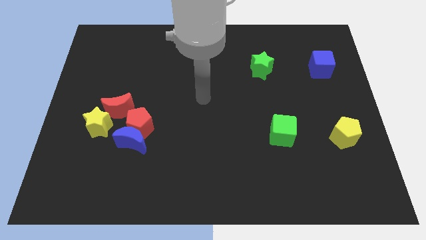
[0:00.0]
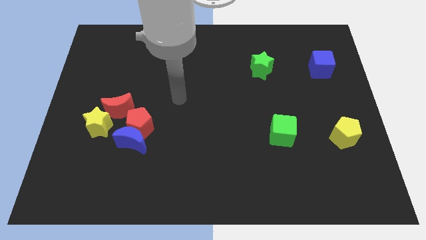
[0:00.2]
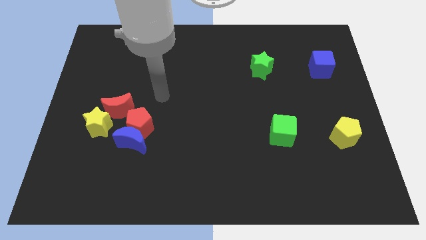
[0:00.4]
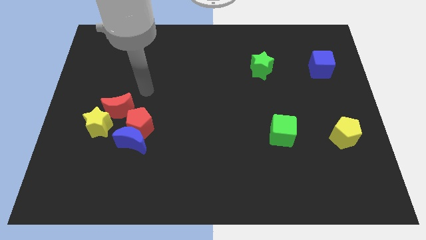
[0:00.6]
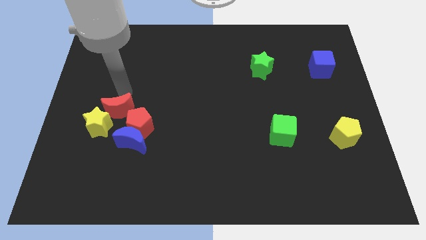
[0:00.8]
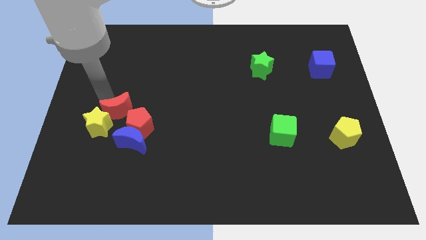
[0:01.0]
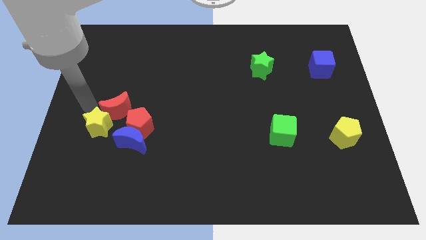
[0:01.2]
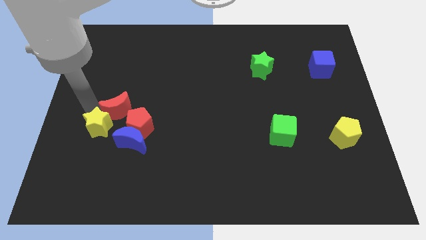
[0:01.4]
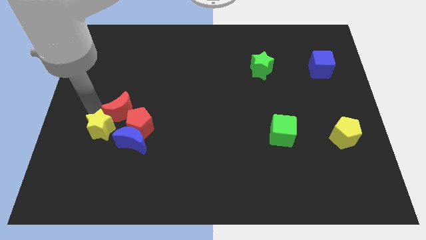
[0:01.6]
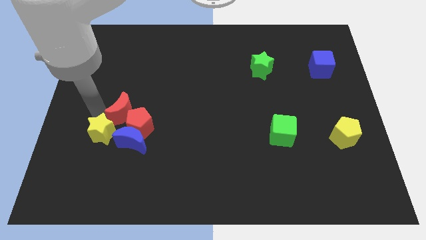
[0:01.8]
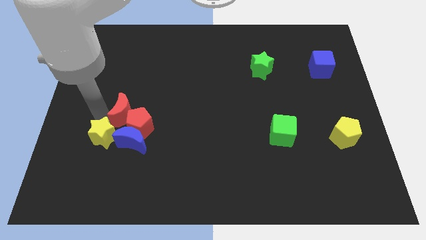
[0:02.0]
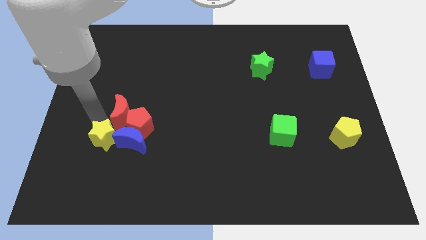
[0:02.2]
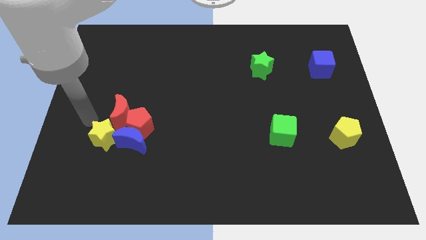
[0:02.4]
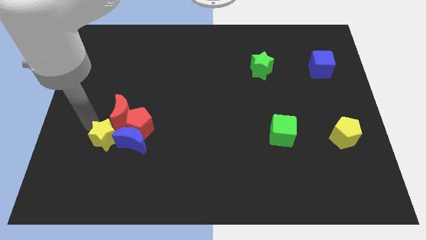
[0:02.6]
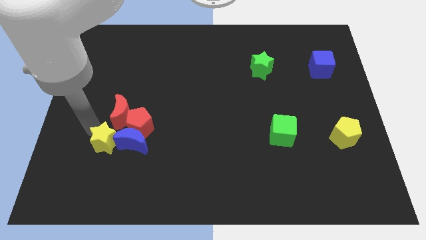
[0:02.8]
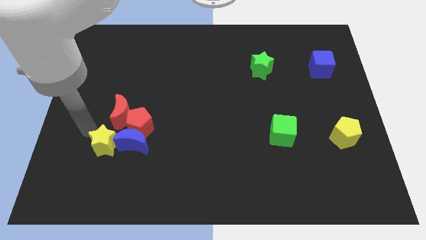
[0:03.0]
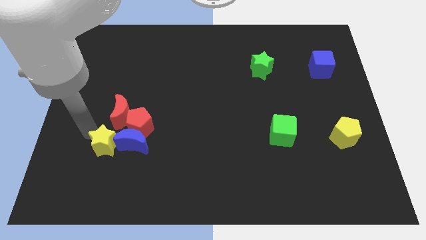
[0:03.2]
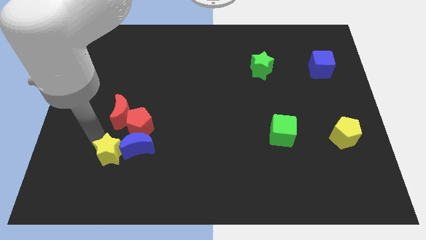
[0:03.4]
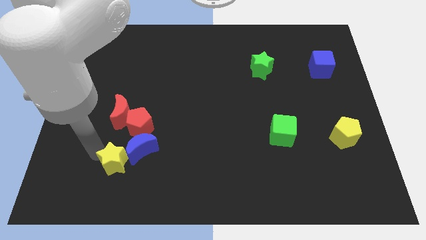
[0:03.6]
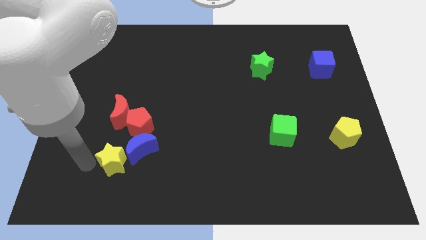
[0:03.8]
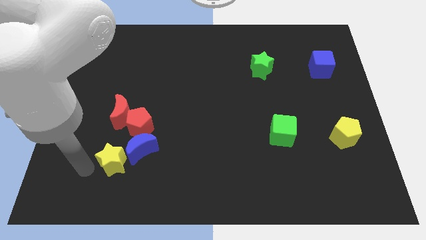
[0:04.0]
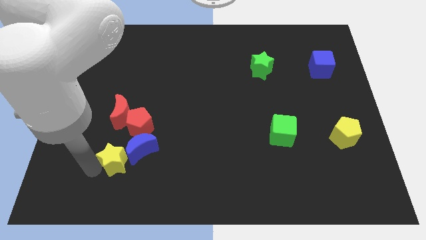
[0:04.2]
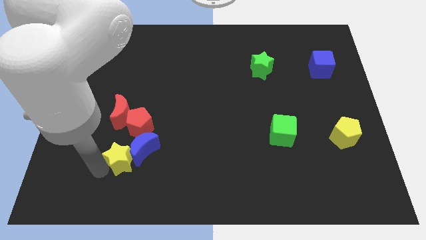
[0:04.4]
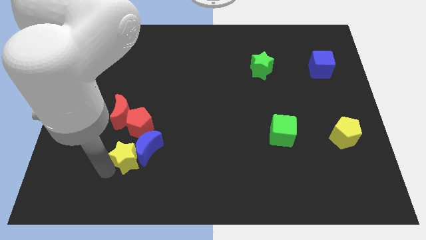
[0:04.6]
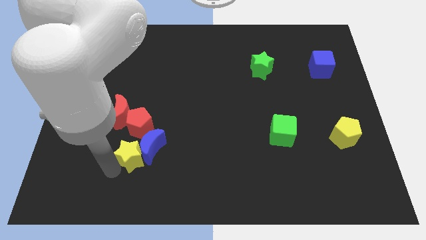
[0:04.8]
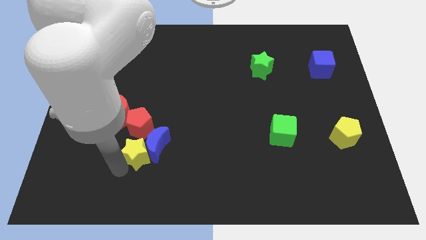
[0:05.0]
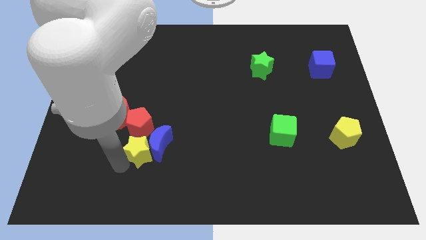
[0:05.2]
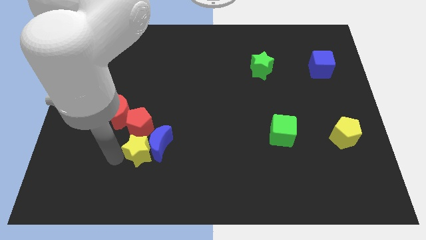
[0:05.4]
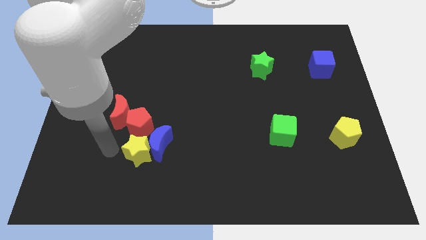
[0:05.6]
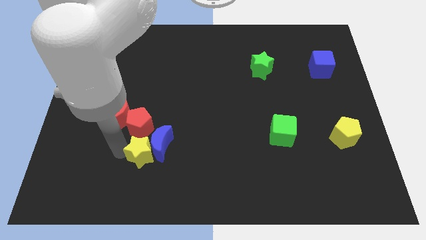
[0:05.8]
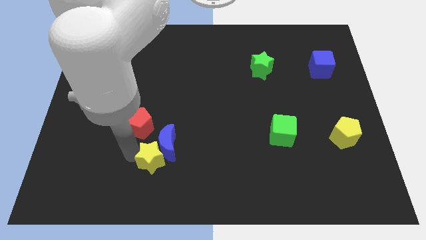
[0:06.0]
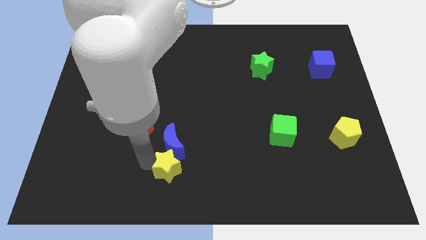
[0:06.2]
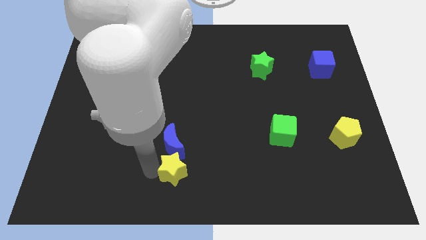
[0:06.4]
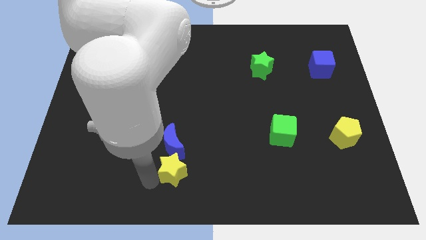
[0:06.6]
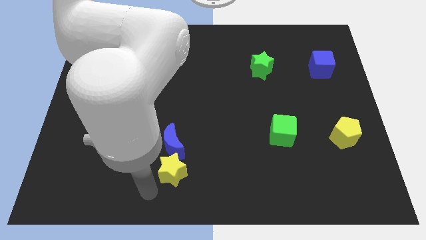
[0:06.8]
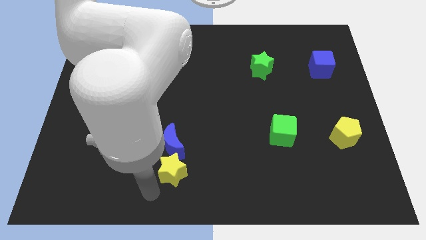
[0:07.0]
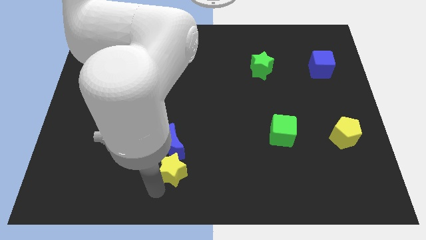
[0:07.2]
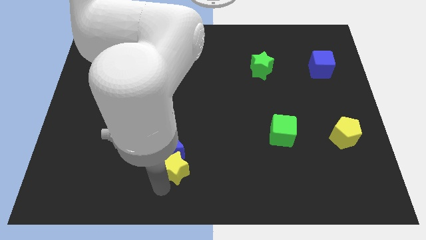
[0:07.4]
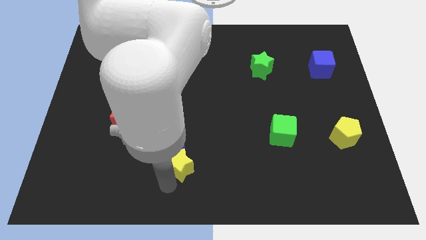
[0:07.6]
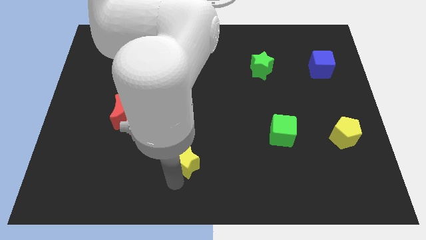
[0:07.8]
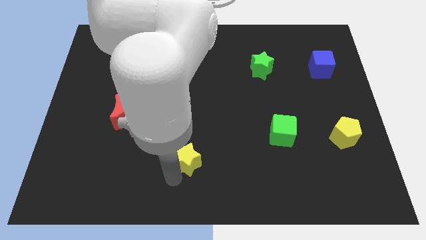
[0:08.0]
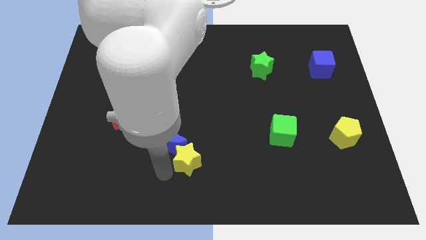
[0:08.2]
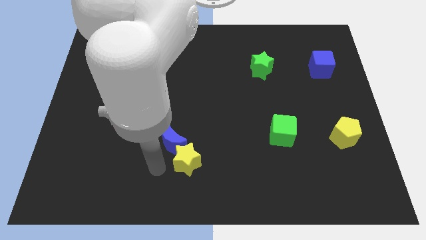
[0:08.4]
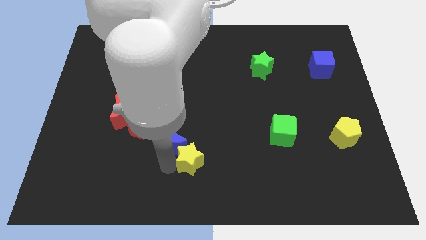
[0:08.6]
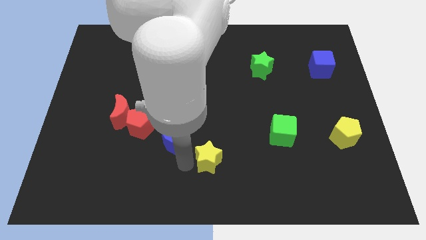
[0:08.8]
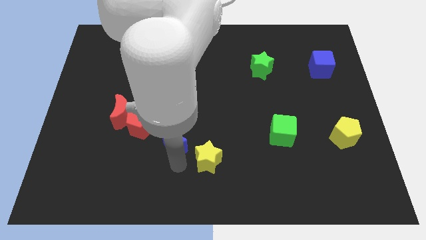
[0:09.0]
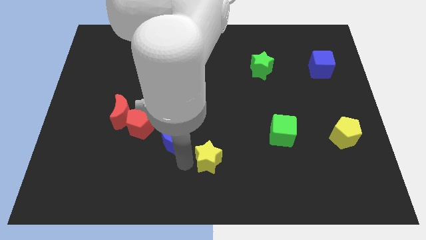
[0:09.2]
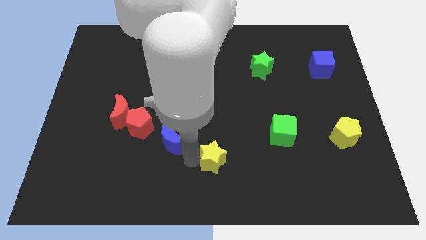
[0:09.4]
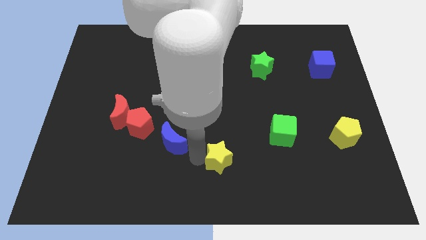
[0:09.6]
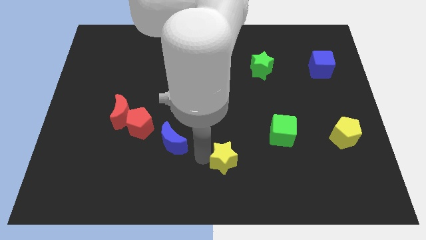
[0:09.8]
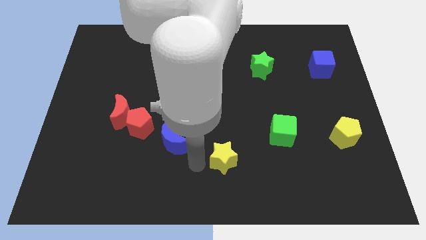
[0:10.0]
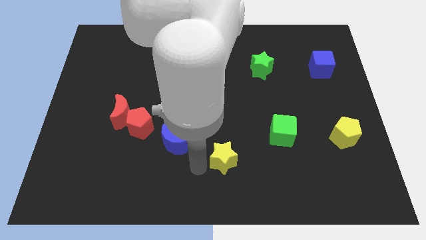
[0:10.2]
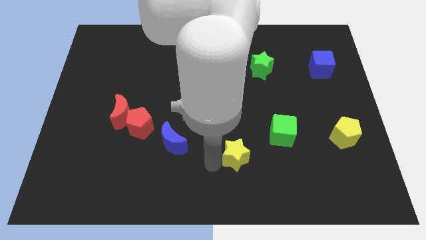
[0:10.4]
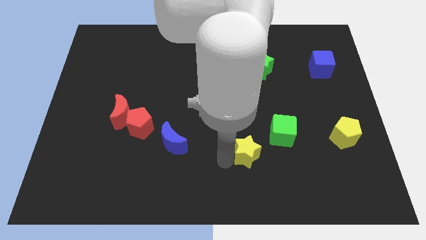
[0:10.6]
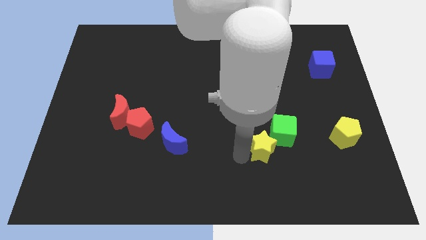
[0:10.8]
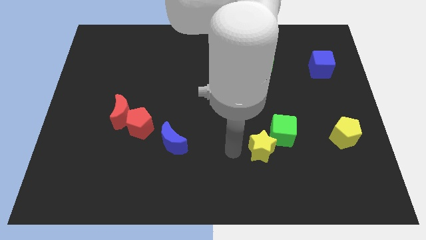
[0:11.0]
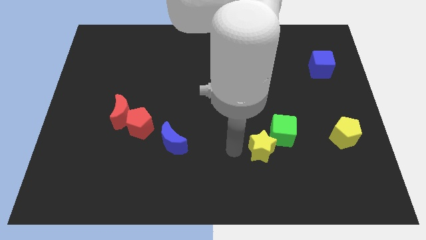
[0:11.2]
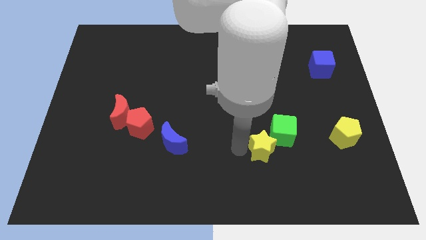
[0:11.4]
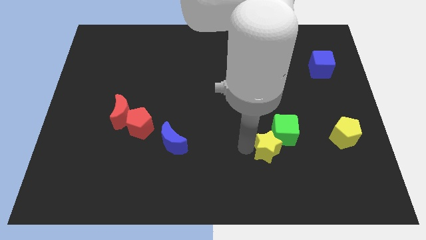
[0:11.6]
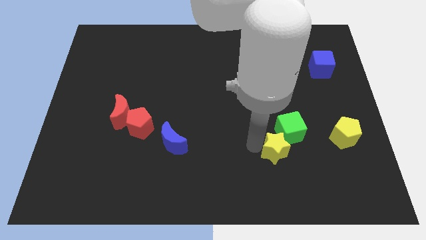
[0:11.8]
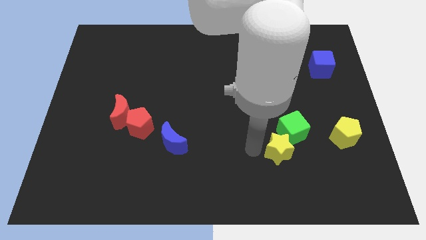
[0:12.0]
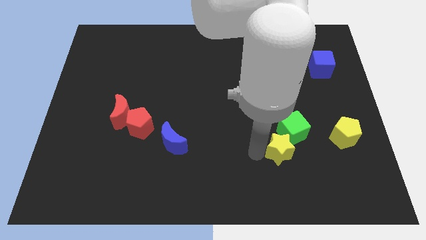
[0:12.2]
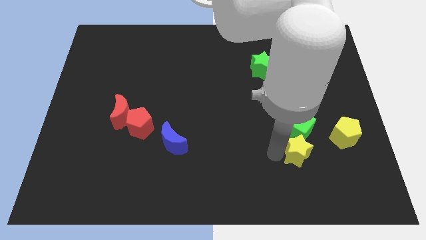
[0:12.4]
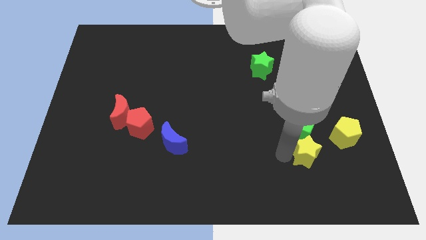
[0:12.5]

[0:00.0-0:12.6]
put the yellow star diagonally down and to the right of the green cube
